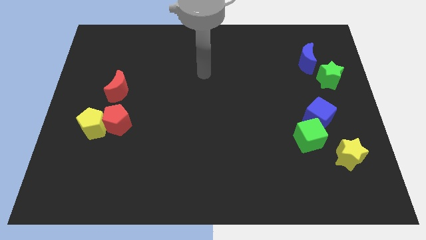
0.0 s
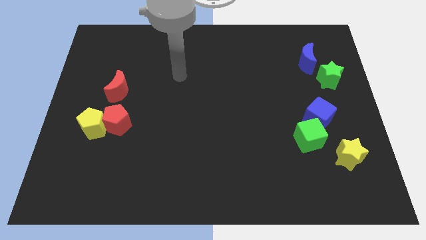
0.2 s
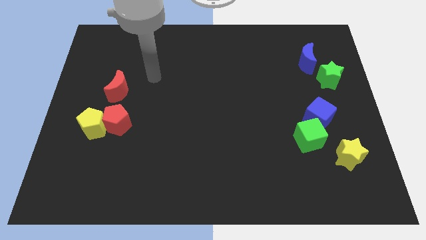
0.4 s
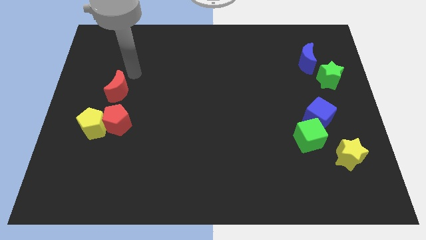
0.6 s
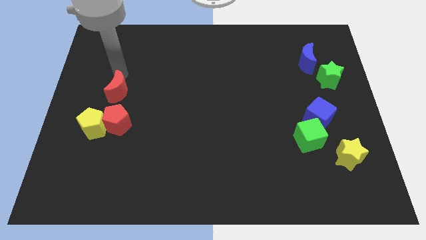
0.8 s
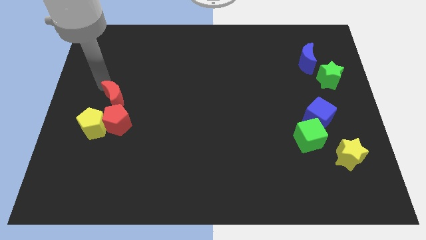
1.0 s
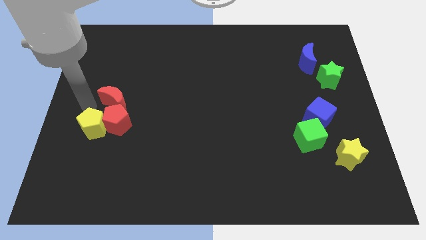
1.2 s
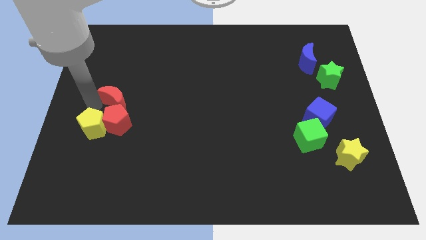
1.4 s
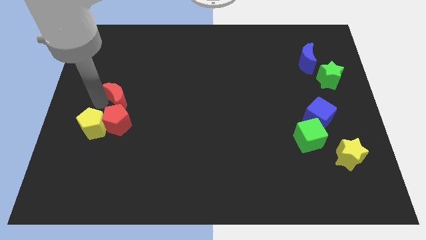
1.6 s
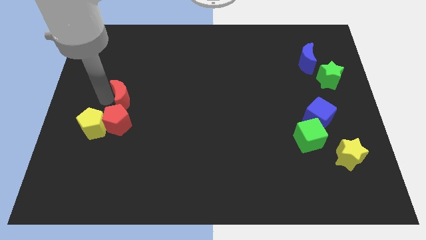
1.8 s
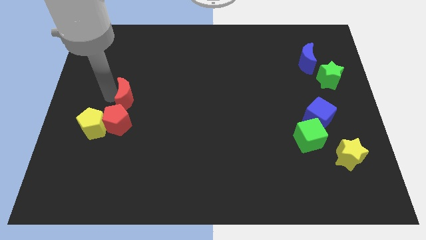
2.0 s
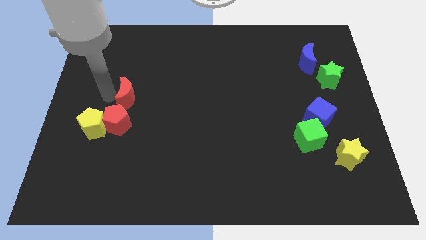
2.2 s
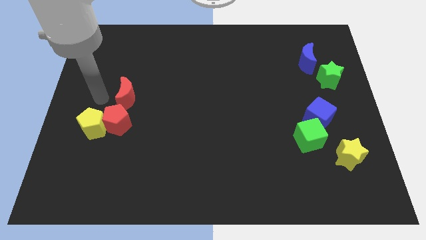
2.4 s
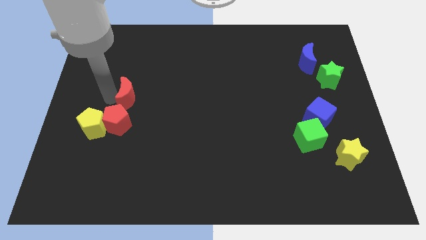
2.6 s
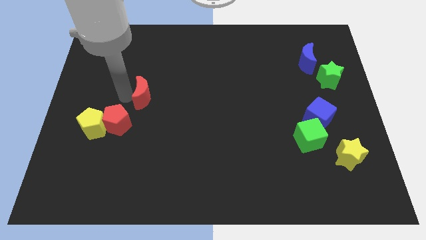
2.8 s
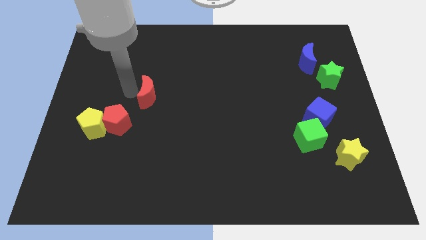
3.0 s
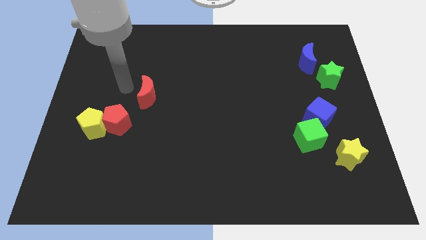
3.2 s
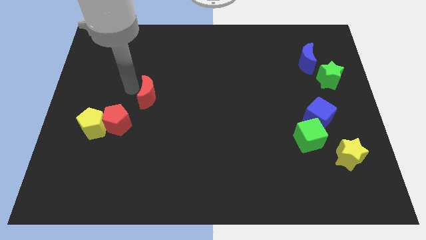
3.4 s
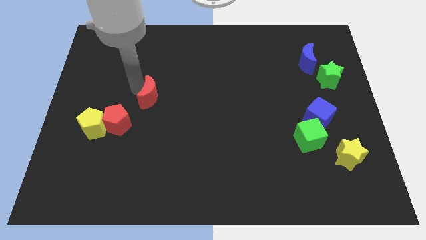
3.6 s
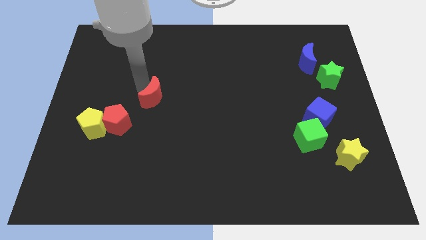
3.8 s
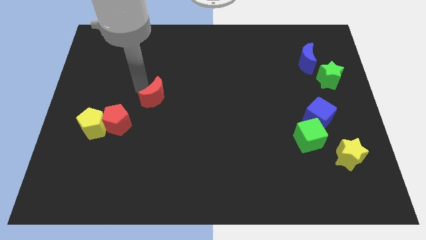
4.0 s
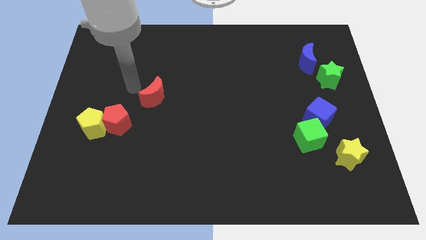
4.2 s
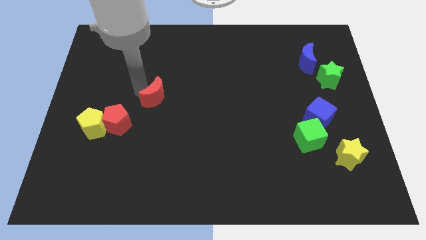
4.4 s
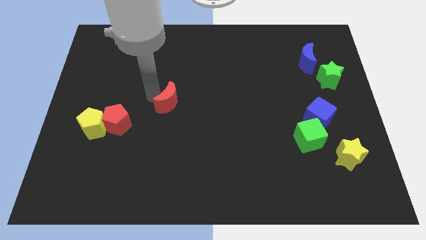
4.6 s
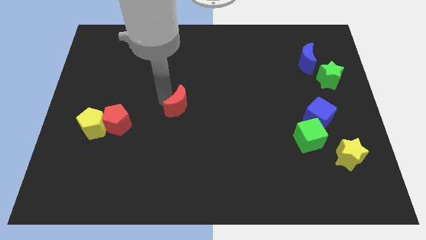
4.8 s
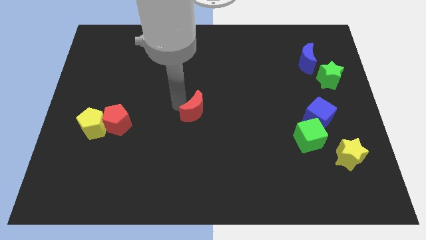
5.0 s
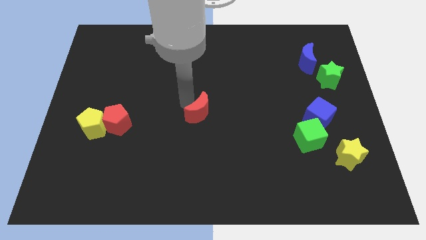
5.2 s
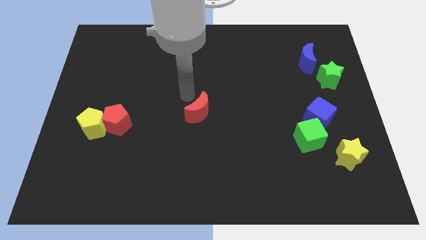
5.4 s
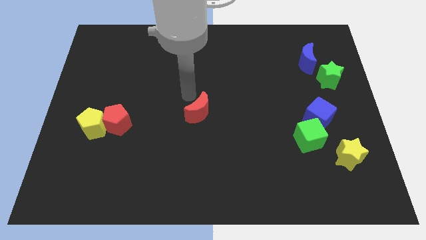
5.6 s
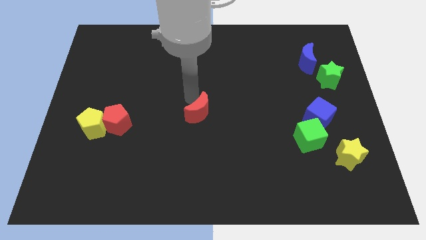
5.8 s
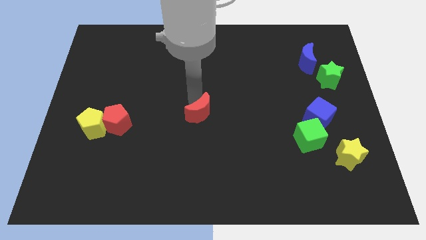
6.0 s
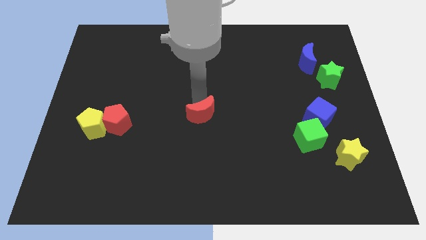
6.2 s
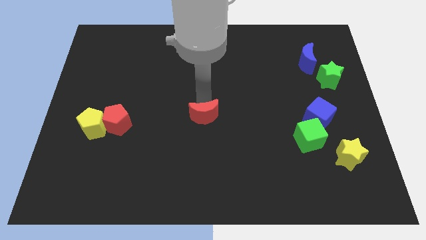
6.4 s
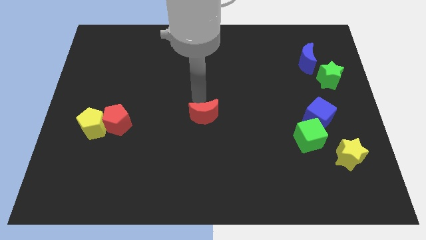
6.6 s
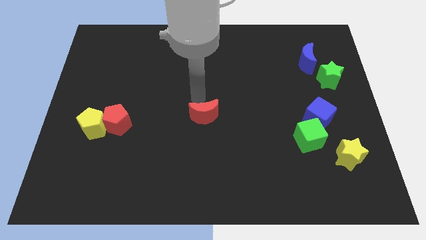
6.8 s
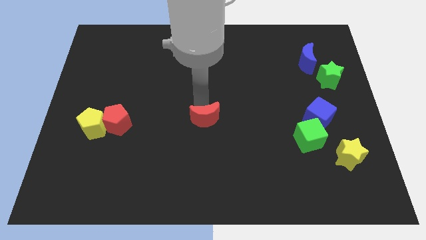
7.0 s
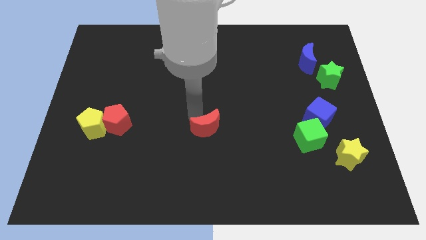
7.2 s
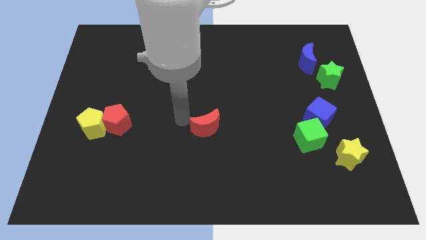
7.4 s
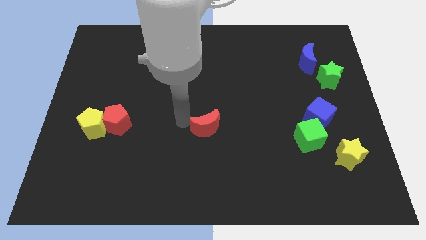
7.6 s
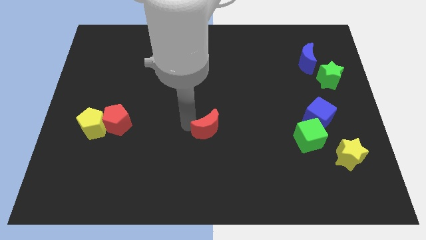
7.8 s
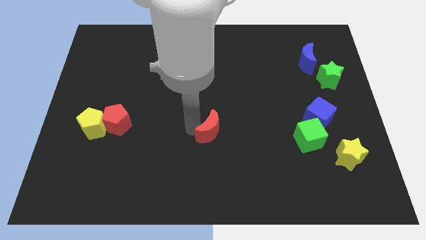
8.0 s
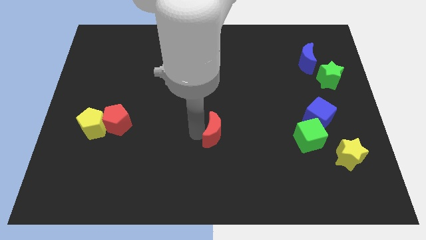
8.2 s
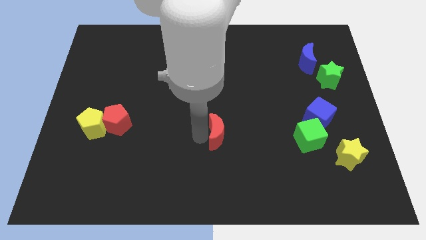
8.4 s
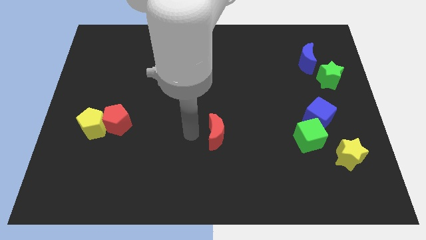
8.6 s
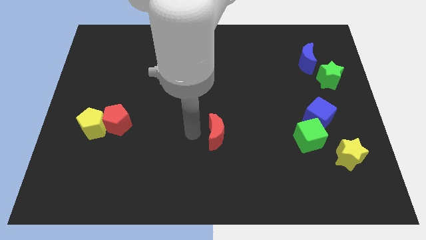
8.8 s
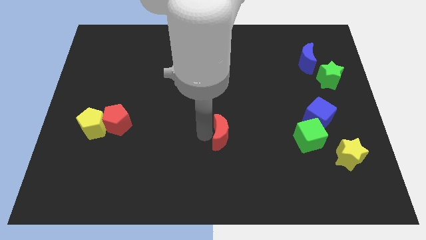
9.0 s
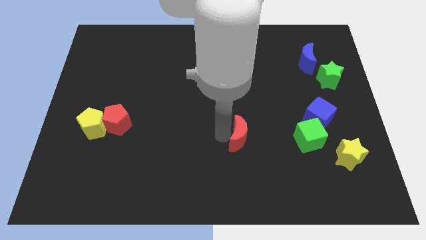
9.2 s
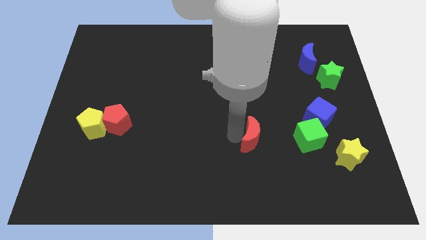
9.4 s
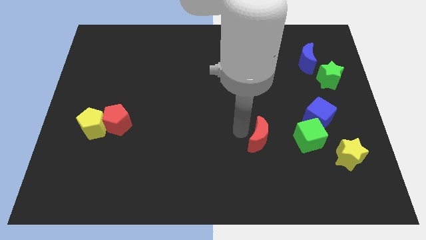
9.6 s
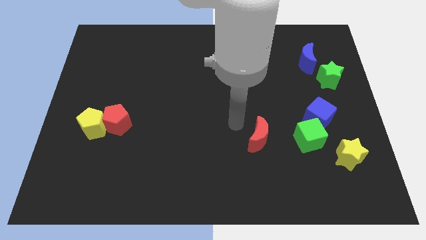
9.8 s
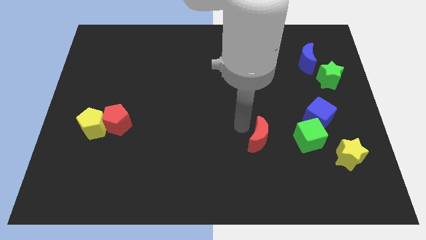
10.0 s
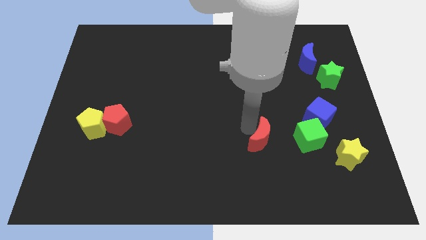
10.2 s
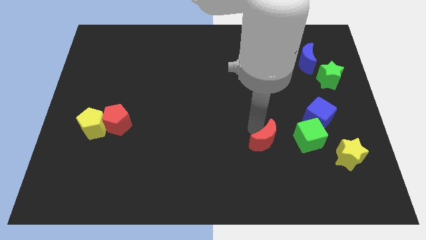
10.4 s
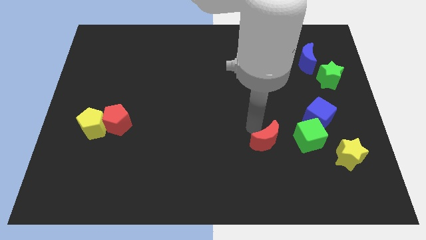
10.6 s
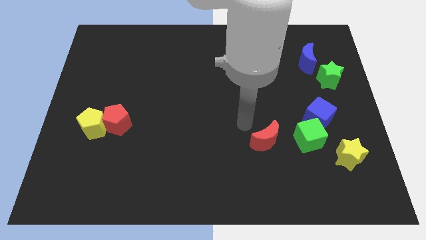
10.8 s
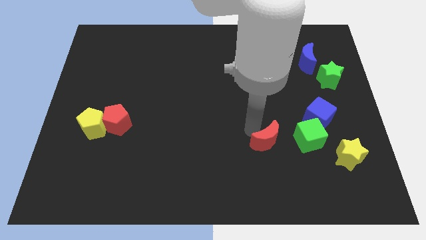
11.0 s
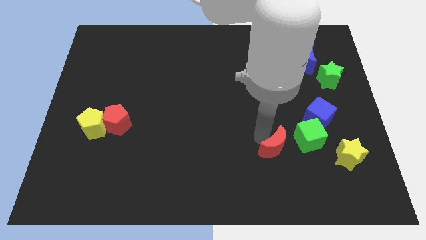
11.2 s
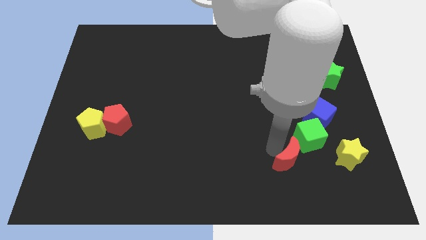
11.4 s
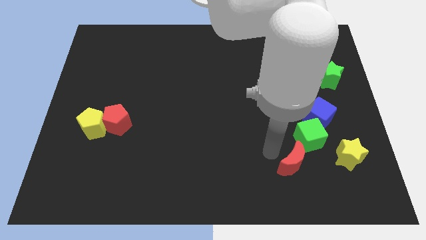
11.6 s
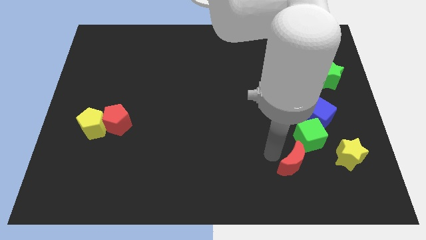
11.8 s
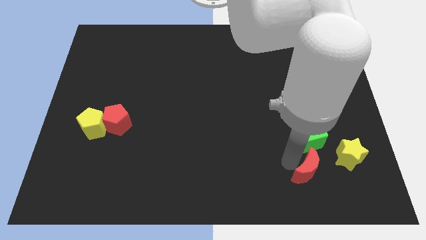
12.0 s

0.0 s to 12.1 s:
push the red moon to the bottom left of the yellow star
